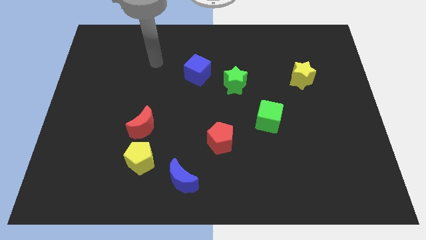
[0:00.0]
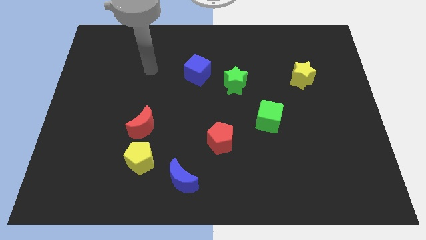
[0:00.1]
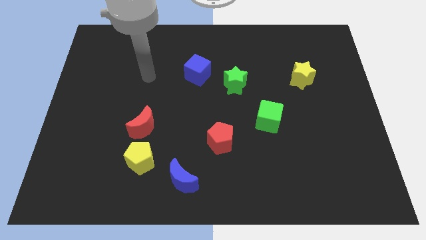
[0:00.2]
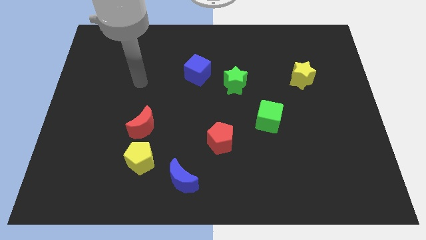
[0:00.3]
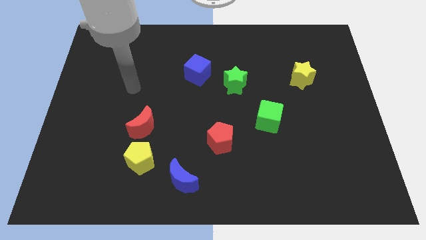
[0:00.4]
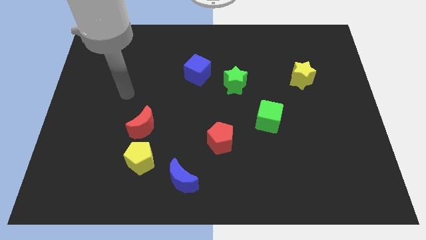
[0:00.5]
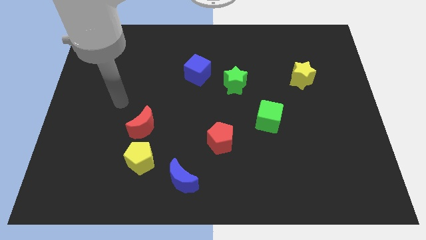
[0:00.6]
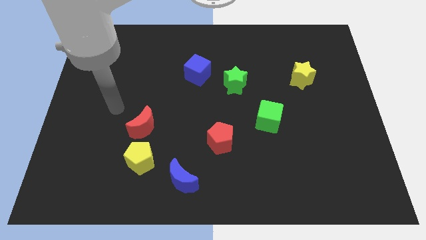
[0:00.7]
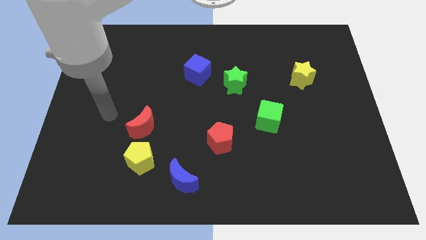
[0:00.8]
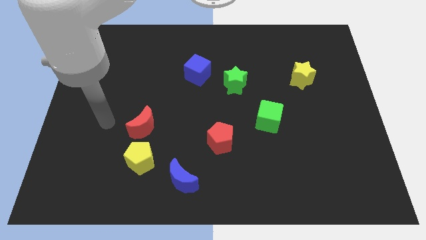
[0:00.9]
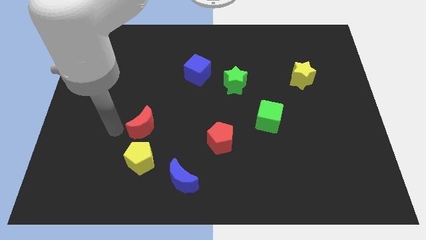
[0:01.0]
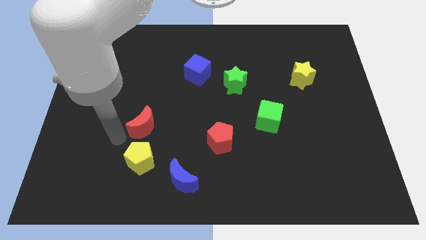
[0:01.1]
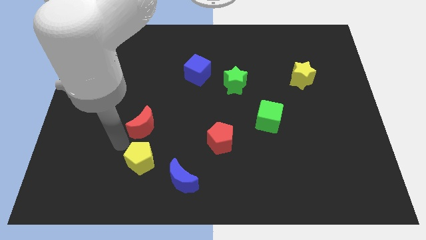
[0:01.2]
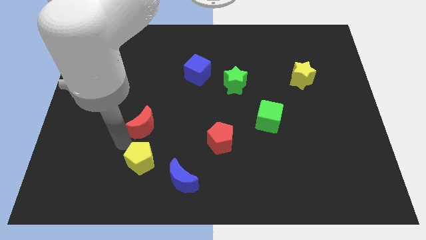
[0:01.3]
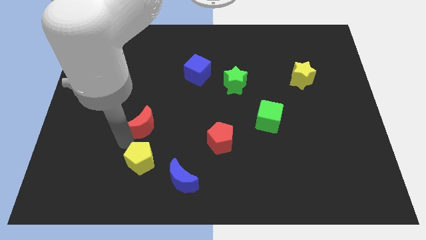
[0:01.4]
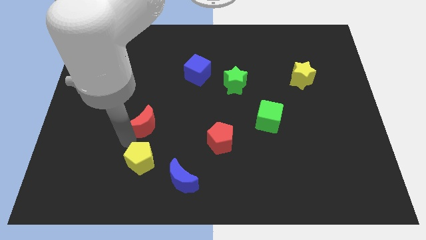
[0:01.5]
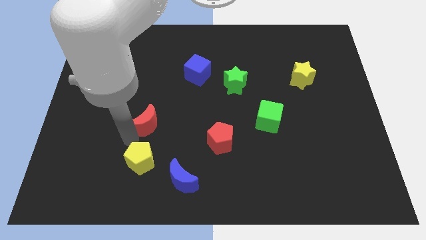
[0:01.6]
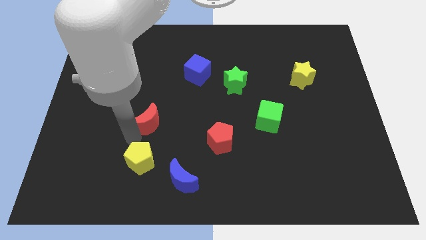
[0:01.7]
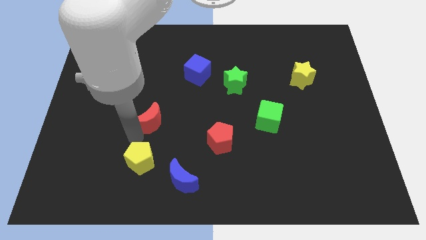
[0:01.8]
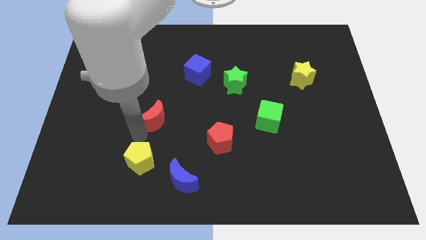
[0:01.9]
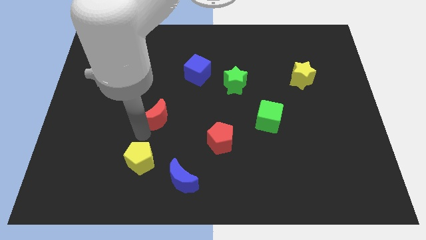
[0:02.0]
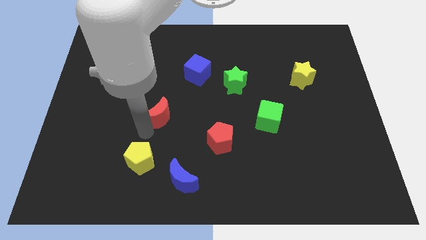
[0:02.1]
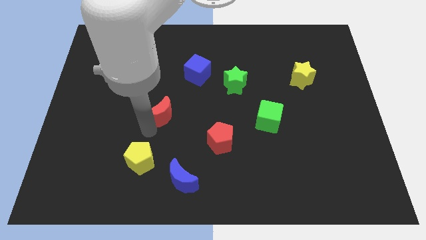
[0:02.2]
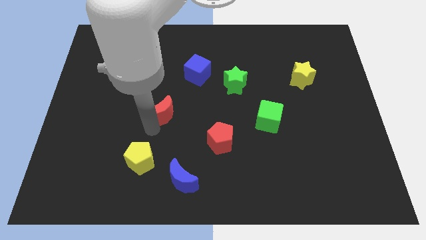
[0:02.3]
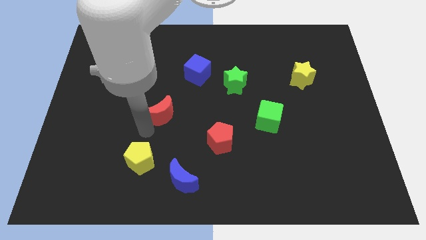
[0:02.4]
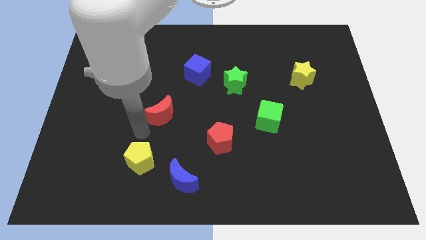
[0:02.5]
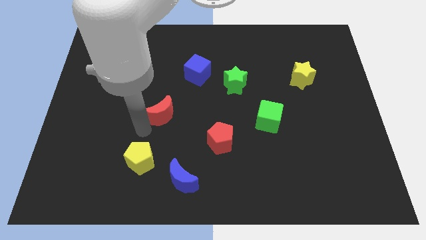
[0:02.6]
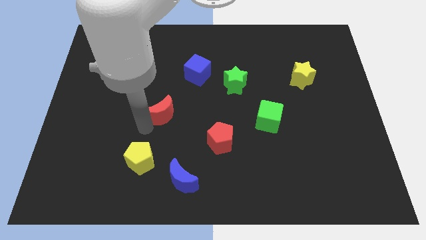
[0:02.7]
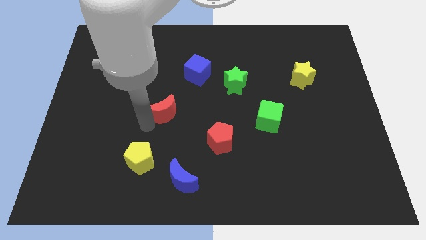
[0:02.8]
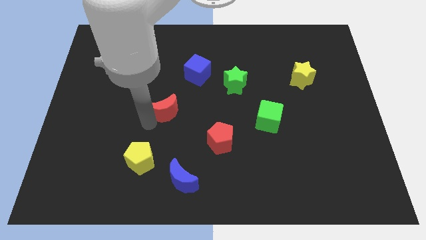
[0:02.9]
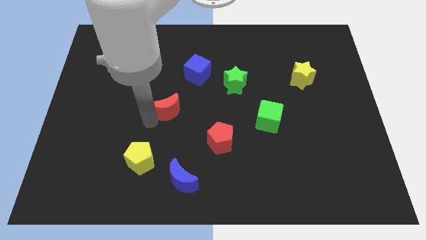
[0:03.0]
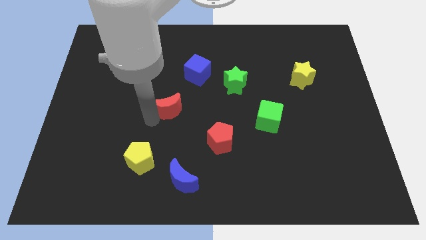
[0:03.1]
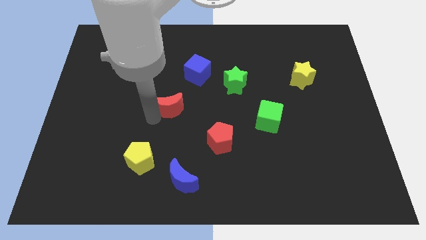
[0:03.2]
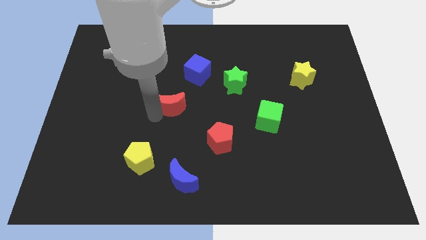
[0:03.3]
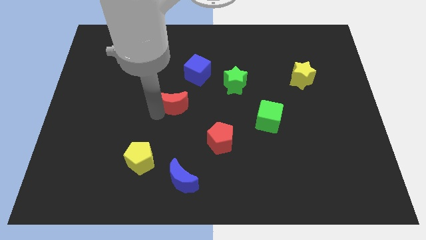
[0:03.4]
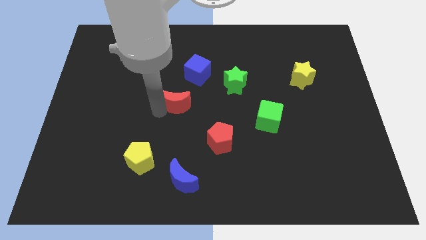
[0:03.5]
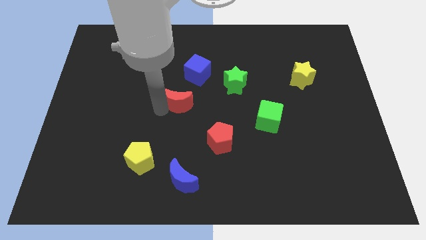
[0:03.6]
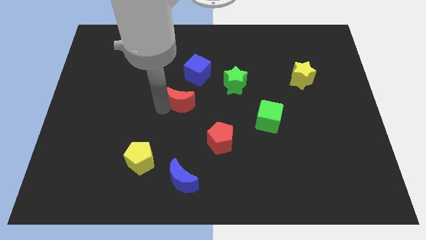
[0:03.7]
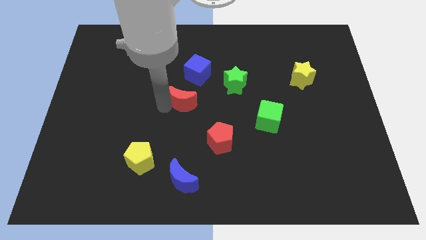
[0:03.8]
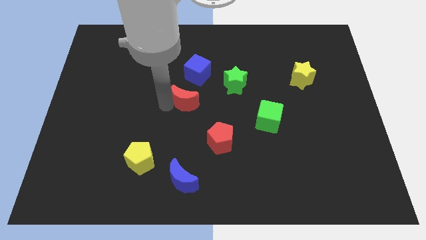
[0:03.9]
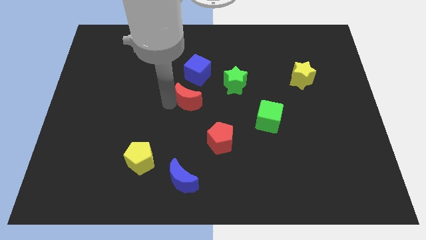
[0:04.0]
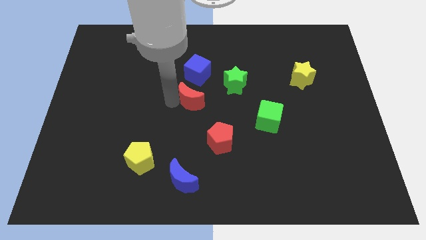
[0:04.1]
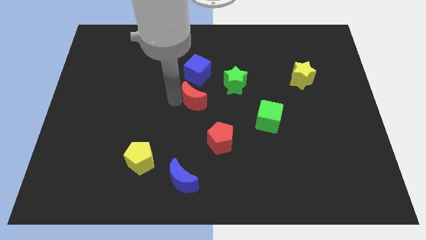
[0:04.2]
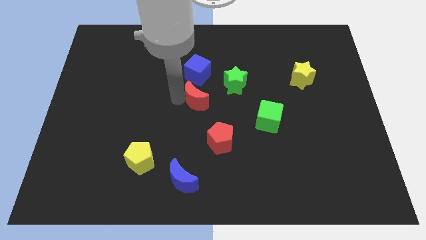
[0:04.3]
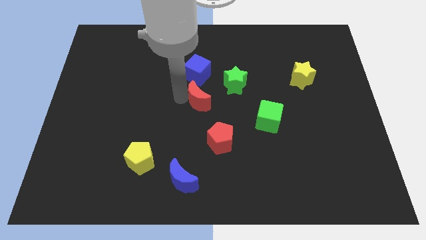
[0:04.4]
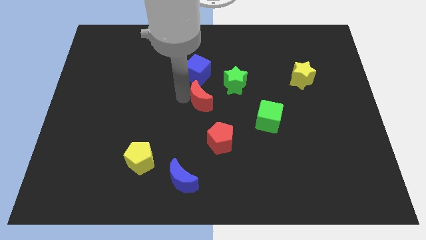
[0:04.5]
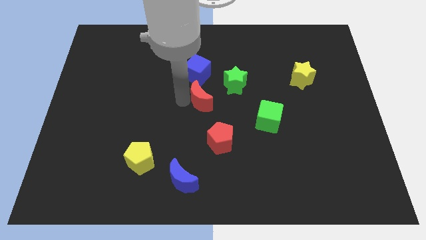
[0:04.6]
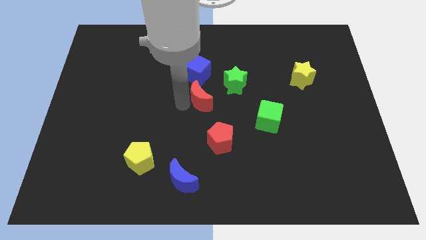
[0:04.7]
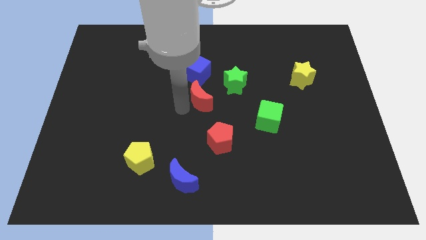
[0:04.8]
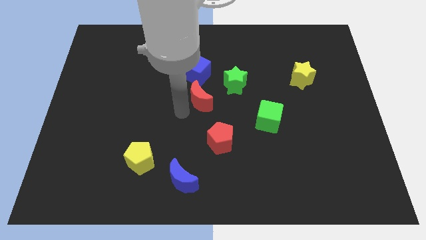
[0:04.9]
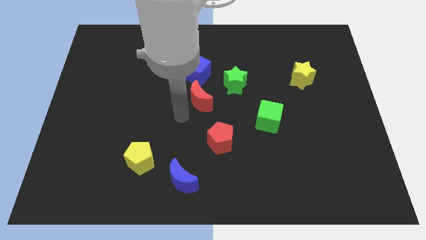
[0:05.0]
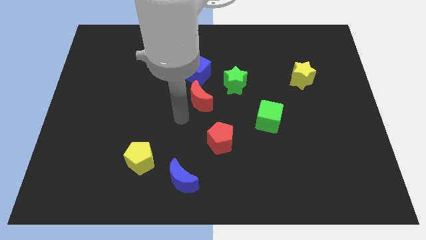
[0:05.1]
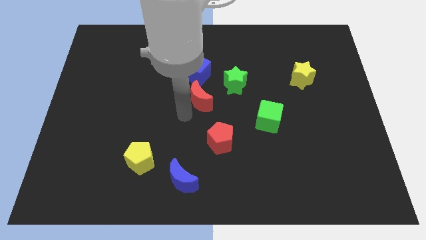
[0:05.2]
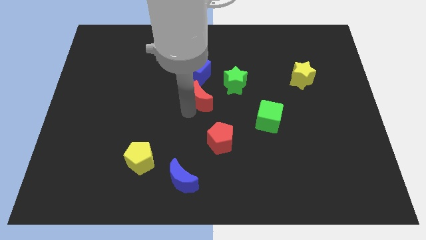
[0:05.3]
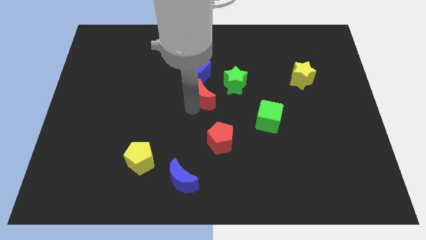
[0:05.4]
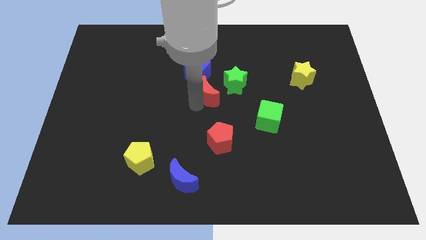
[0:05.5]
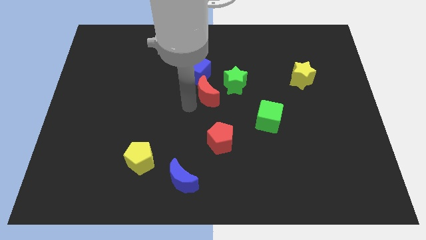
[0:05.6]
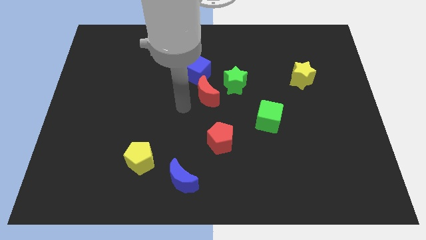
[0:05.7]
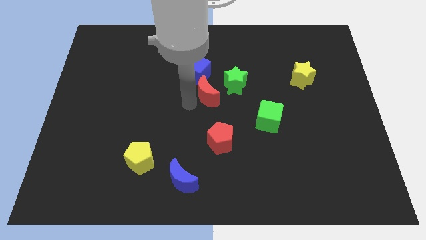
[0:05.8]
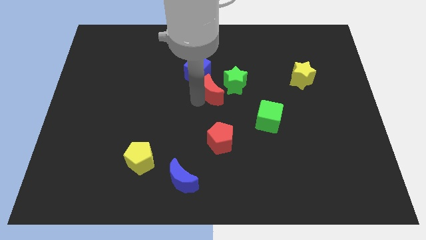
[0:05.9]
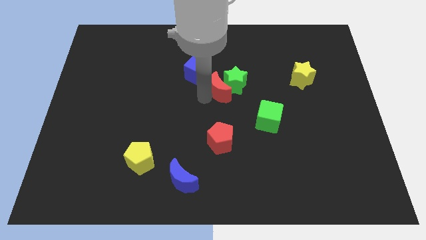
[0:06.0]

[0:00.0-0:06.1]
put the red moon close to the green star

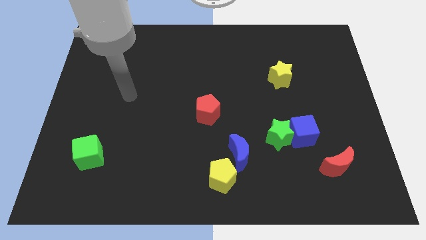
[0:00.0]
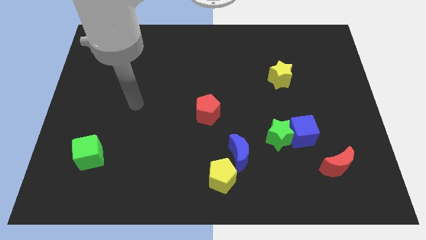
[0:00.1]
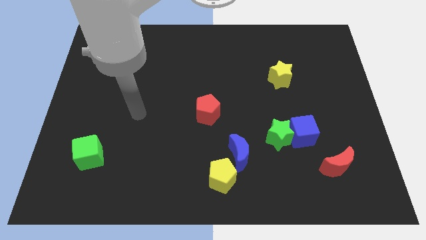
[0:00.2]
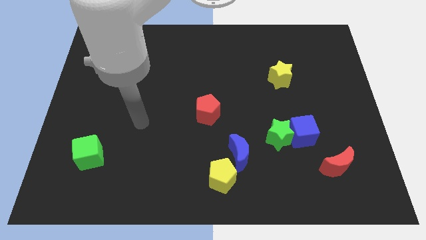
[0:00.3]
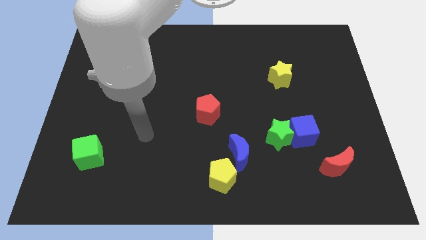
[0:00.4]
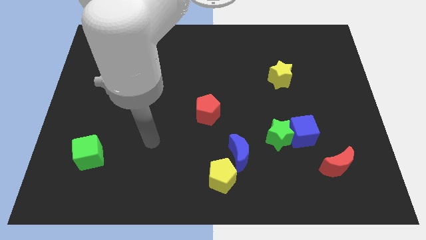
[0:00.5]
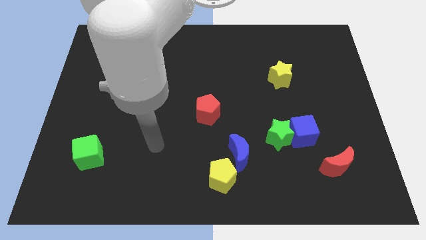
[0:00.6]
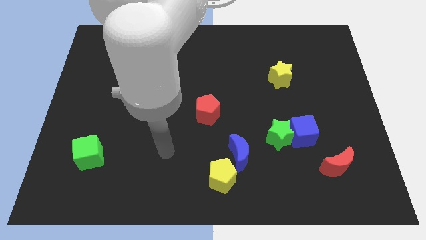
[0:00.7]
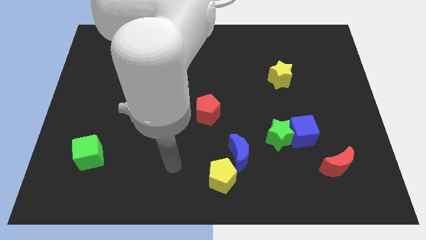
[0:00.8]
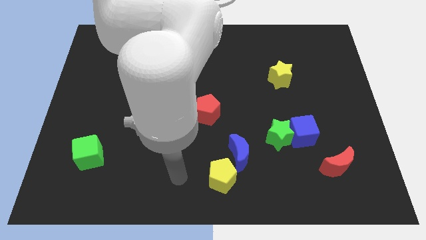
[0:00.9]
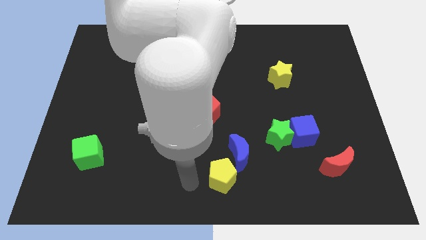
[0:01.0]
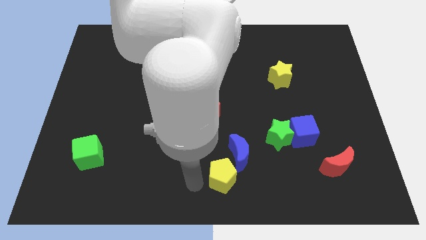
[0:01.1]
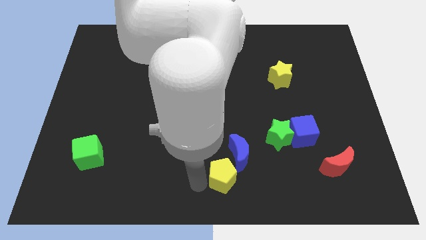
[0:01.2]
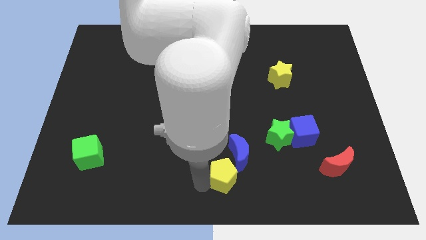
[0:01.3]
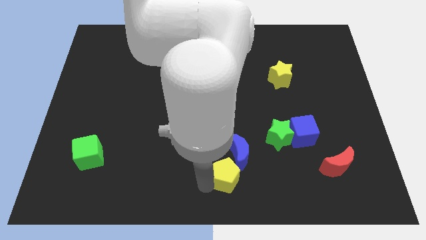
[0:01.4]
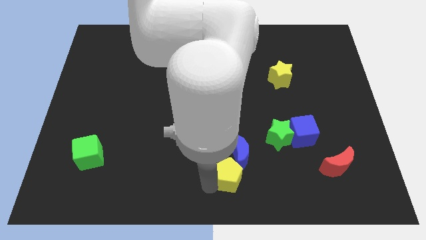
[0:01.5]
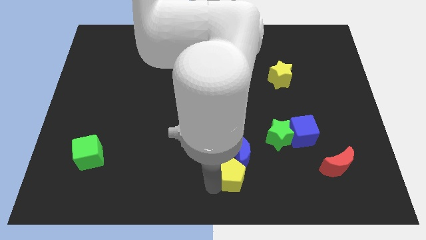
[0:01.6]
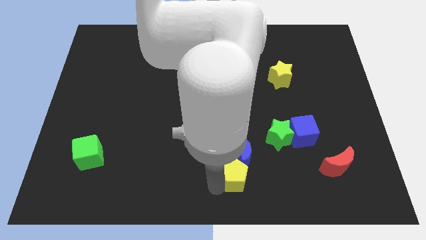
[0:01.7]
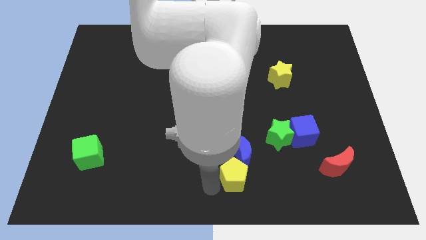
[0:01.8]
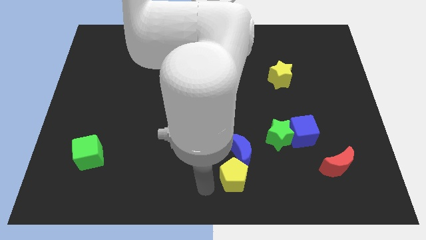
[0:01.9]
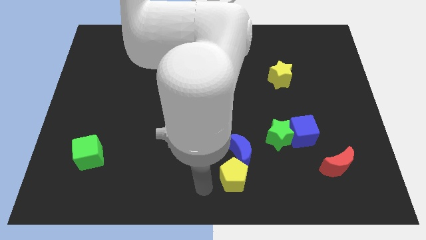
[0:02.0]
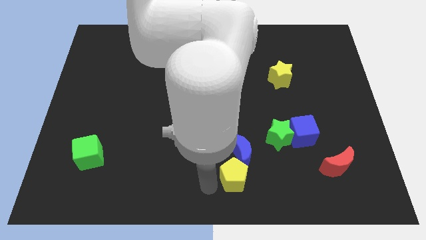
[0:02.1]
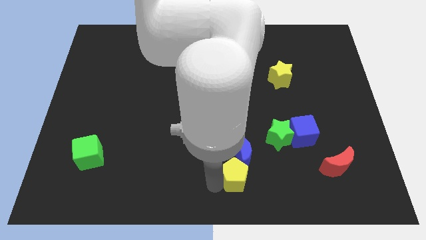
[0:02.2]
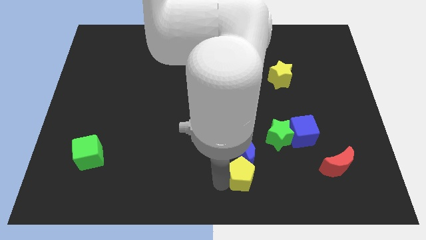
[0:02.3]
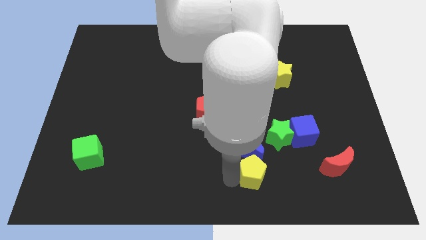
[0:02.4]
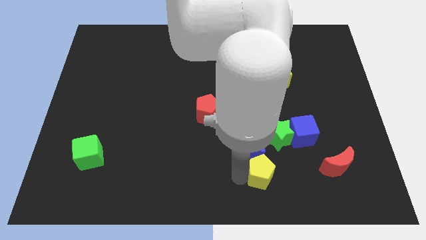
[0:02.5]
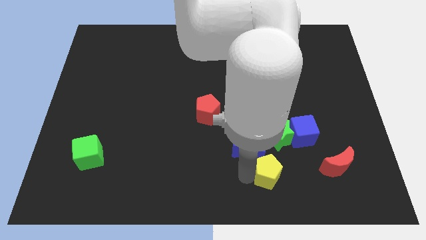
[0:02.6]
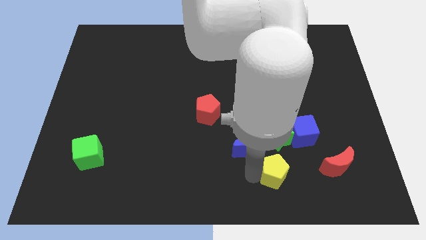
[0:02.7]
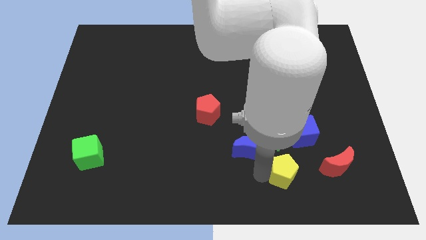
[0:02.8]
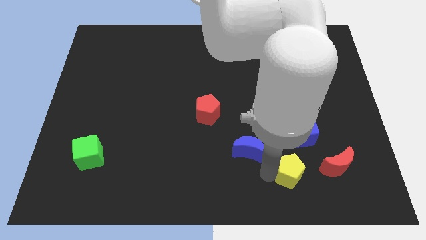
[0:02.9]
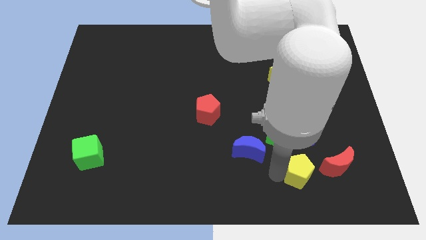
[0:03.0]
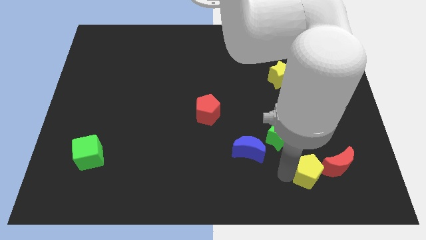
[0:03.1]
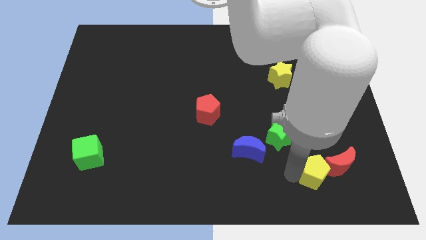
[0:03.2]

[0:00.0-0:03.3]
move the yellow pentagon close to the red moon
